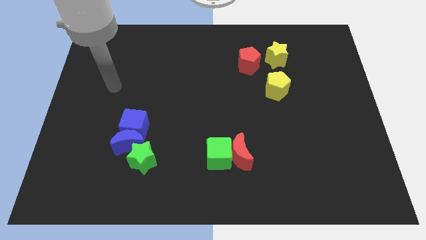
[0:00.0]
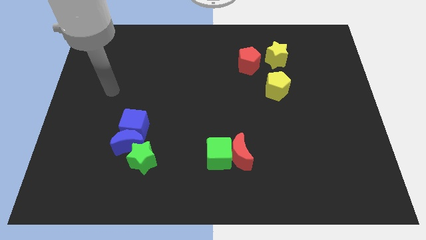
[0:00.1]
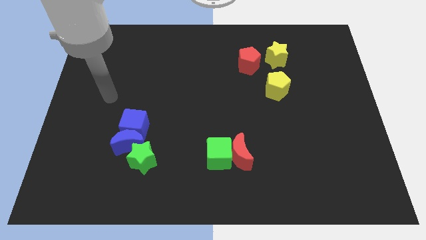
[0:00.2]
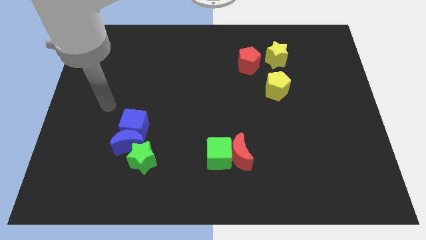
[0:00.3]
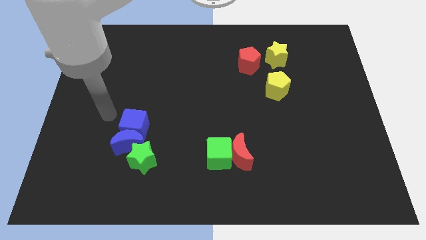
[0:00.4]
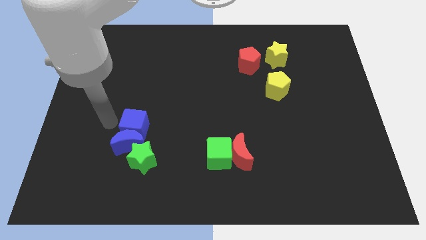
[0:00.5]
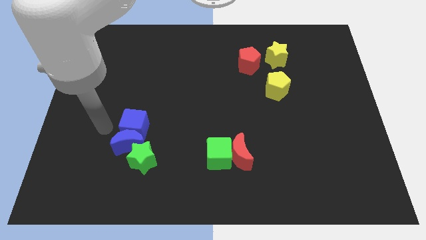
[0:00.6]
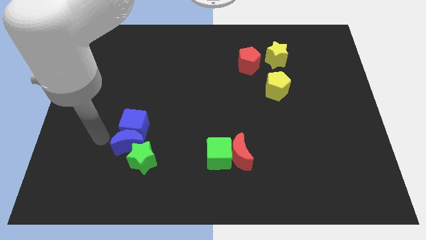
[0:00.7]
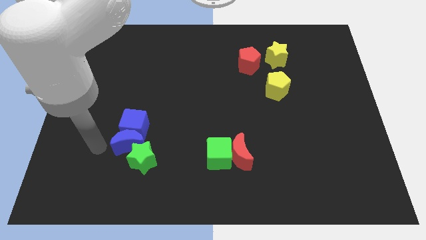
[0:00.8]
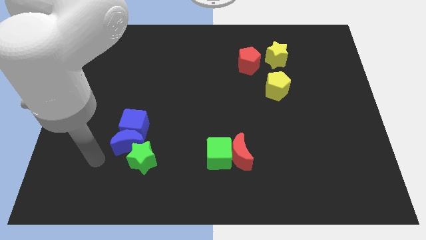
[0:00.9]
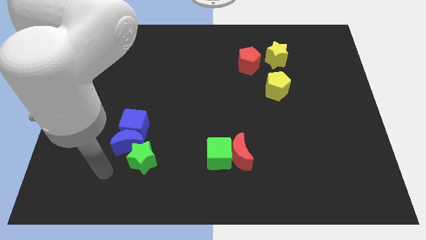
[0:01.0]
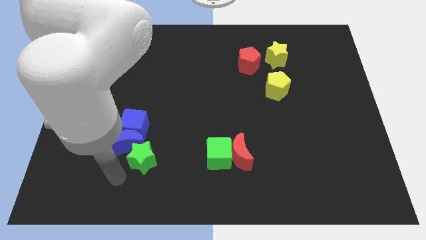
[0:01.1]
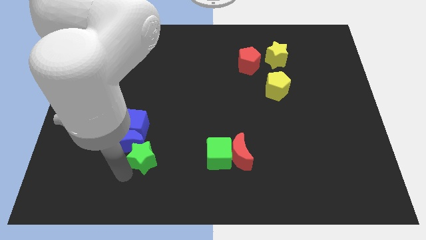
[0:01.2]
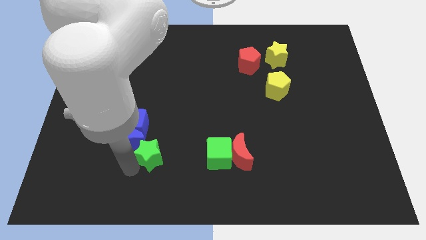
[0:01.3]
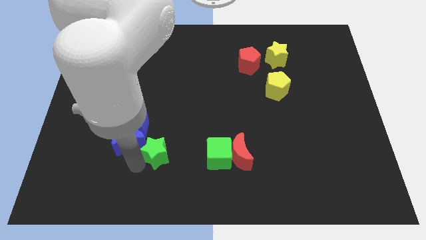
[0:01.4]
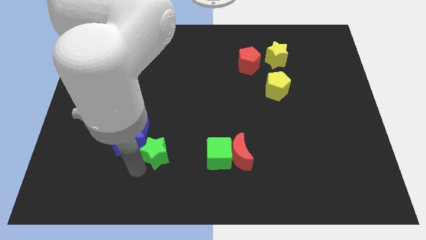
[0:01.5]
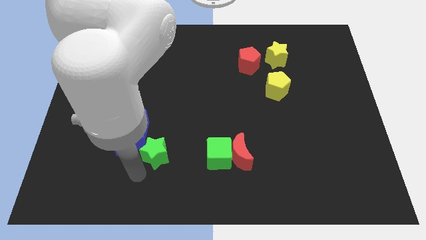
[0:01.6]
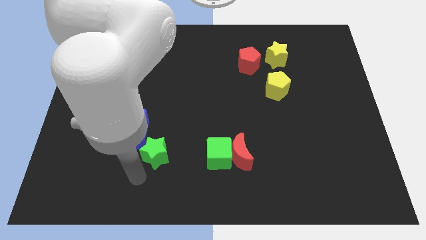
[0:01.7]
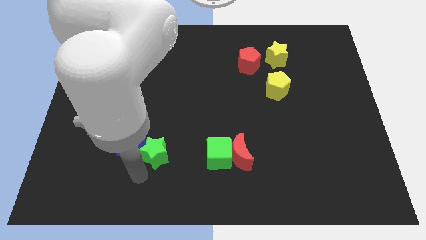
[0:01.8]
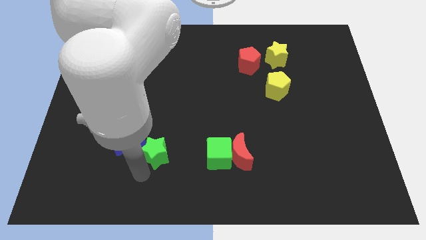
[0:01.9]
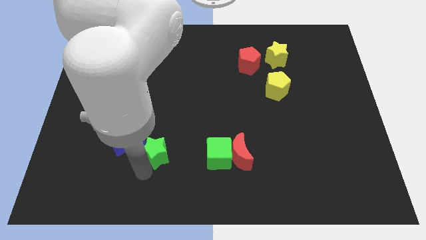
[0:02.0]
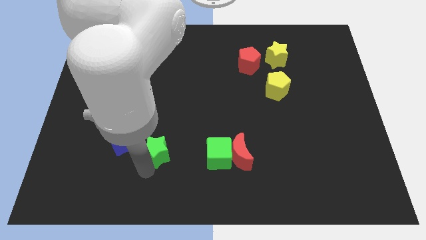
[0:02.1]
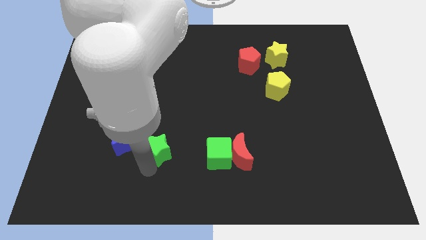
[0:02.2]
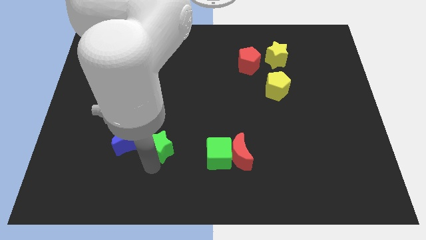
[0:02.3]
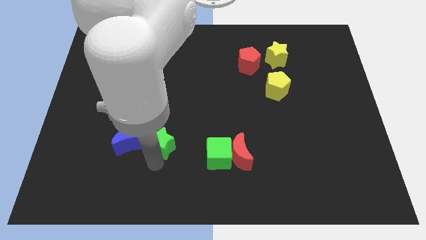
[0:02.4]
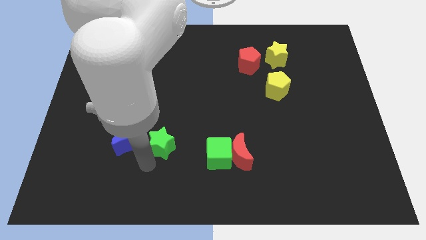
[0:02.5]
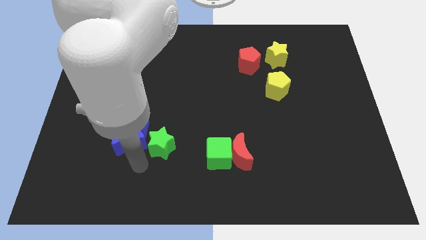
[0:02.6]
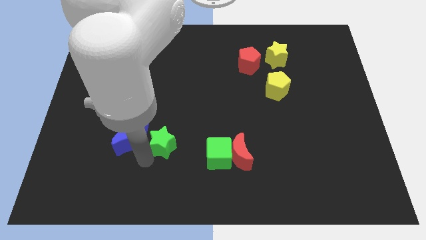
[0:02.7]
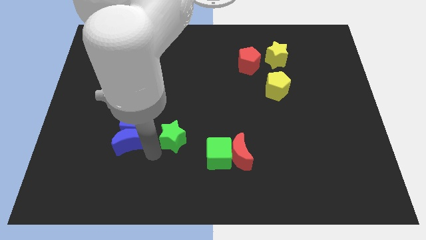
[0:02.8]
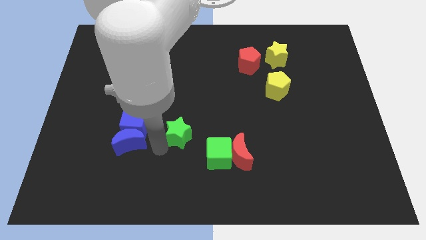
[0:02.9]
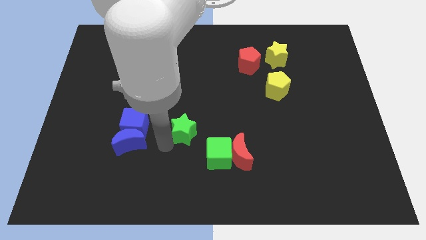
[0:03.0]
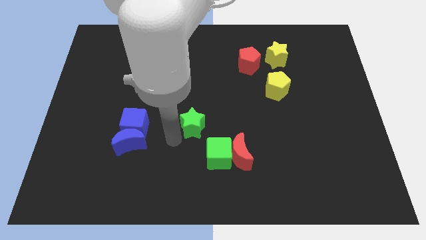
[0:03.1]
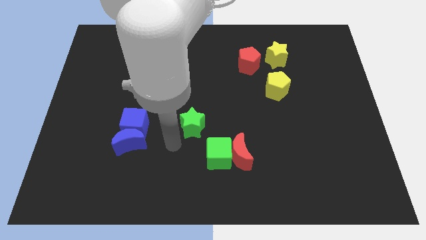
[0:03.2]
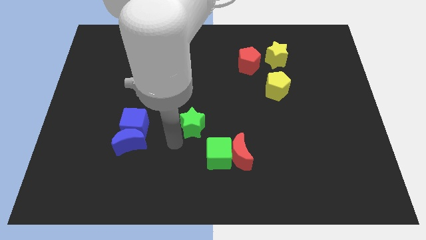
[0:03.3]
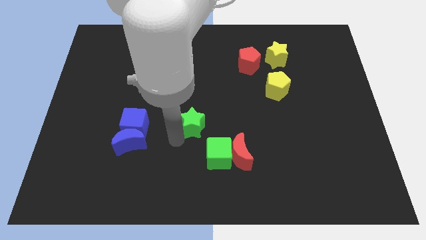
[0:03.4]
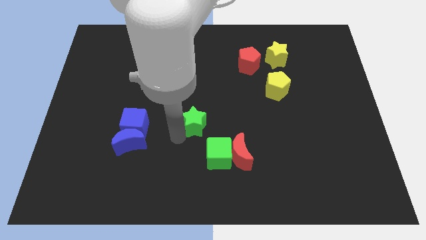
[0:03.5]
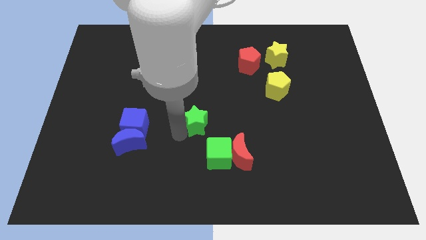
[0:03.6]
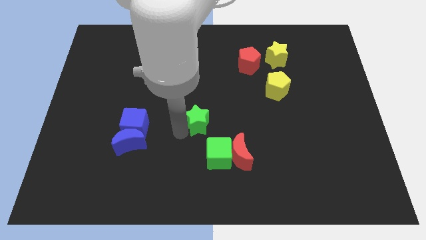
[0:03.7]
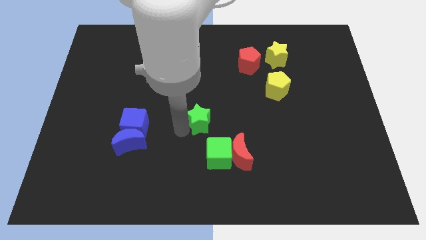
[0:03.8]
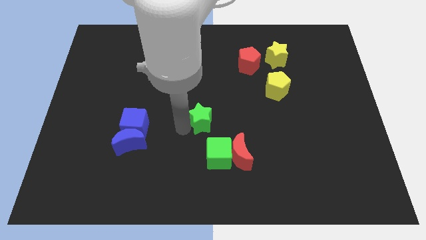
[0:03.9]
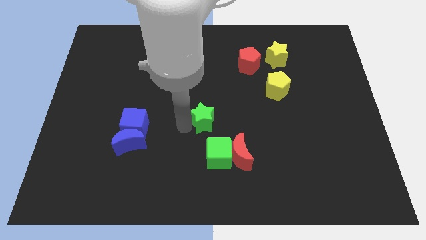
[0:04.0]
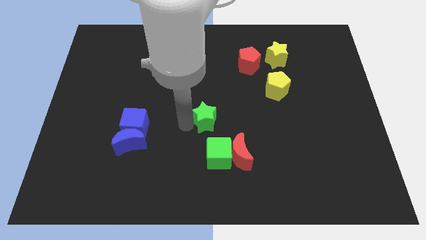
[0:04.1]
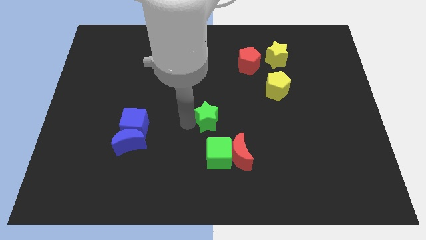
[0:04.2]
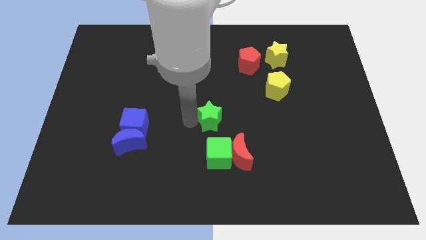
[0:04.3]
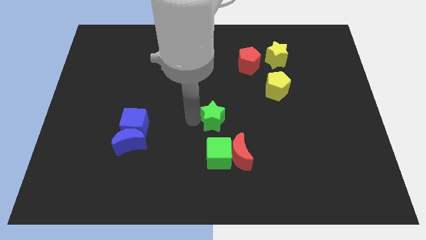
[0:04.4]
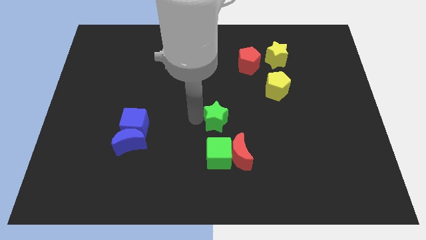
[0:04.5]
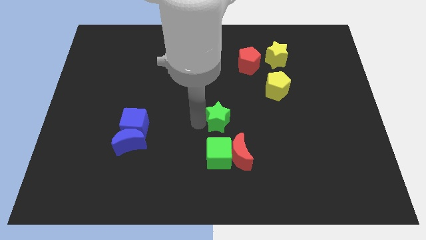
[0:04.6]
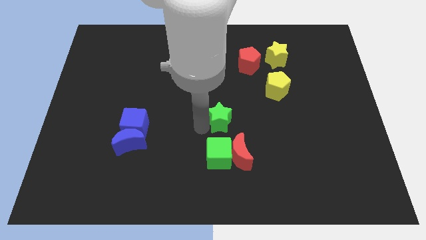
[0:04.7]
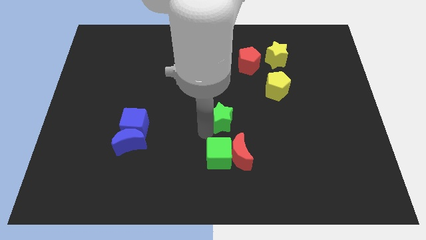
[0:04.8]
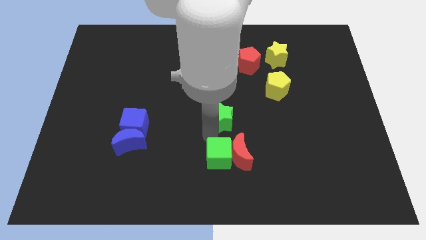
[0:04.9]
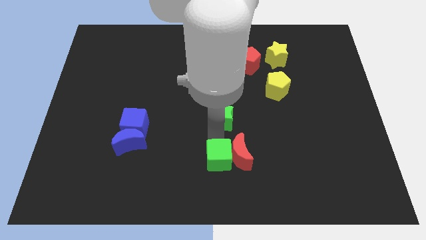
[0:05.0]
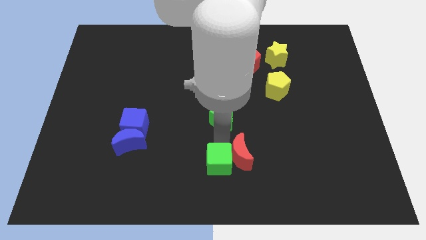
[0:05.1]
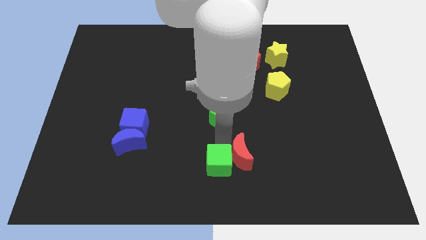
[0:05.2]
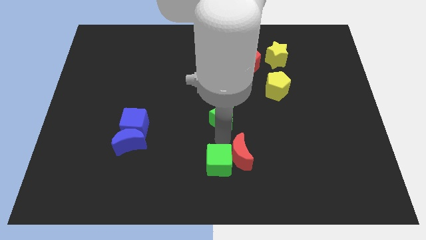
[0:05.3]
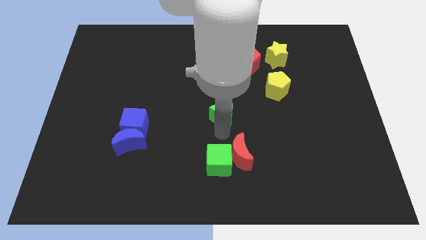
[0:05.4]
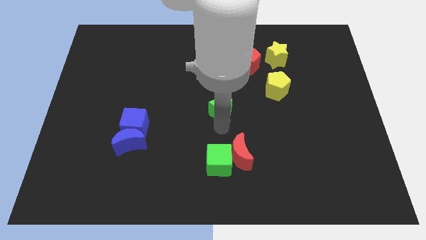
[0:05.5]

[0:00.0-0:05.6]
slide the green star diagonally up and right

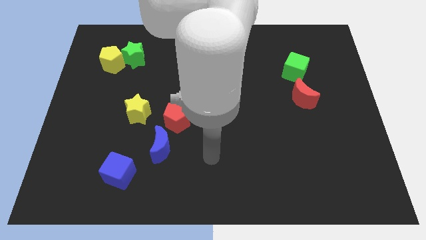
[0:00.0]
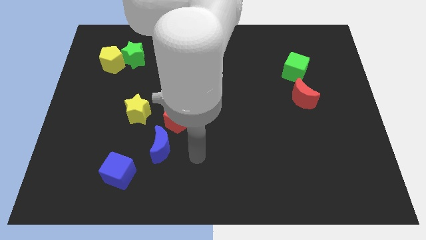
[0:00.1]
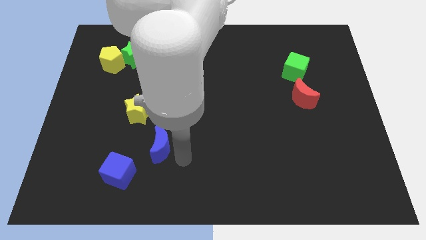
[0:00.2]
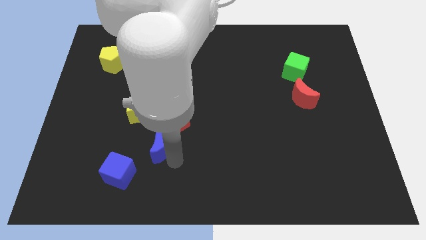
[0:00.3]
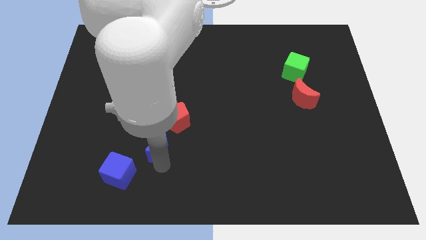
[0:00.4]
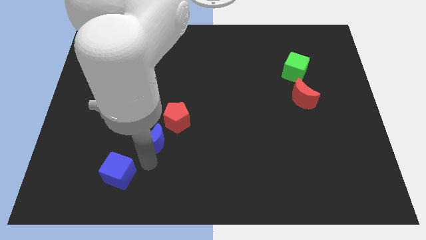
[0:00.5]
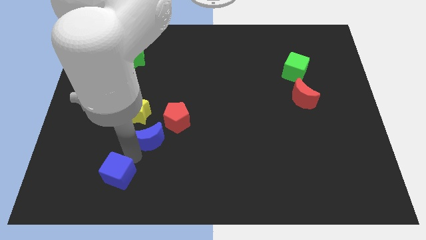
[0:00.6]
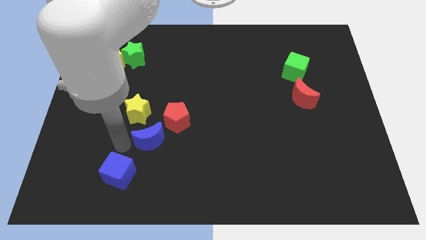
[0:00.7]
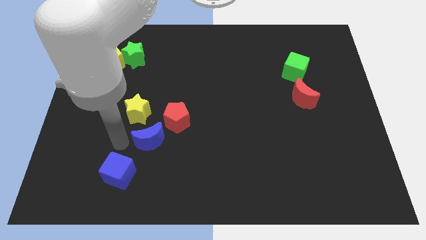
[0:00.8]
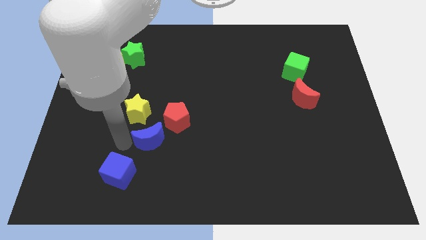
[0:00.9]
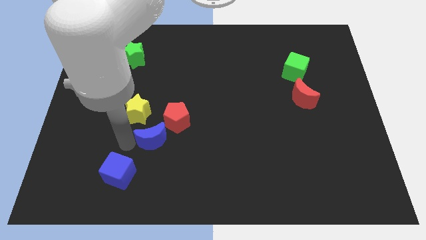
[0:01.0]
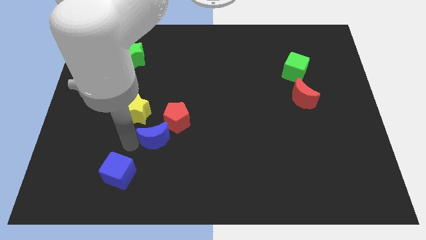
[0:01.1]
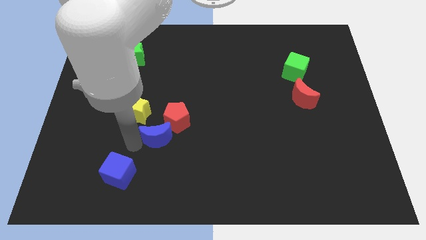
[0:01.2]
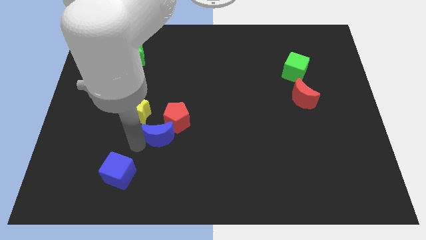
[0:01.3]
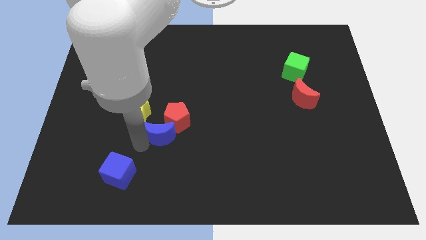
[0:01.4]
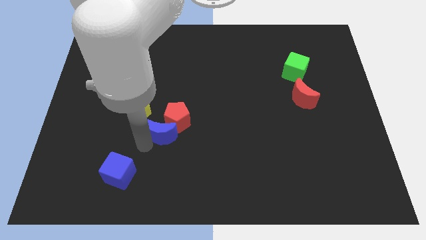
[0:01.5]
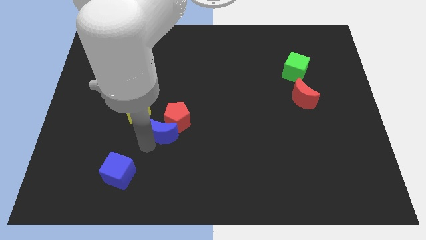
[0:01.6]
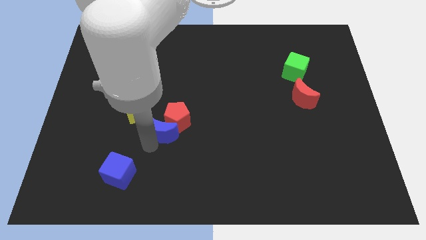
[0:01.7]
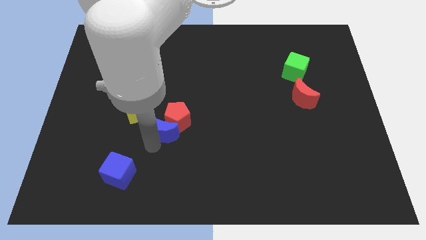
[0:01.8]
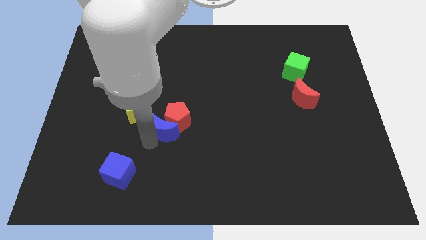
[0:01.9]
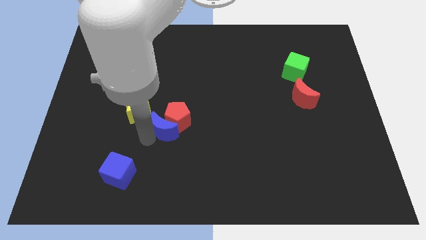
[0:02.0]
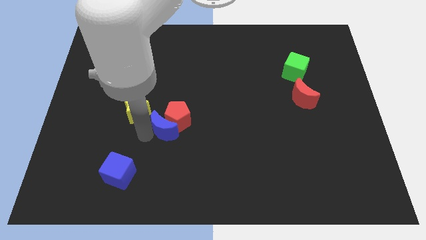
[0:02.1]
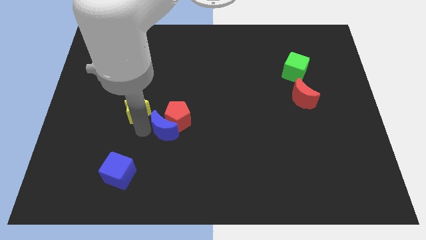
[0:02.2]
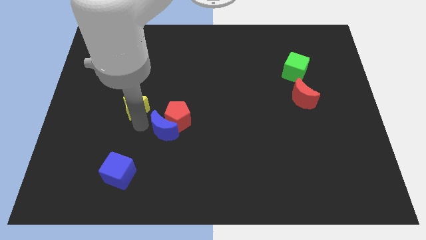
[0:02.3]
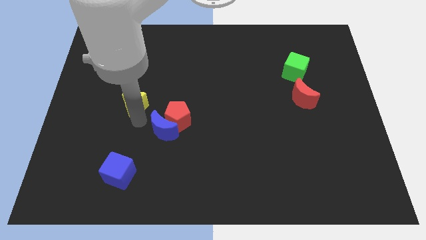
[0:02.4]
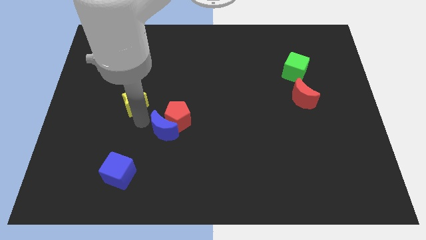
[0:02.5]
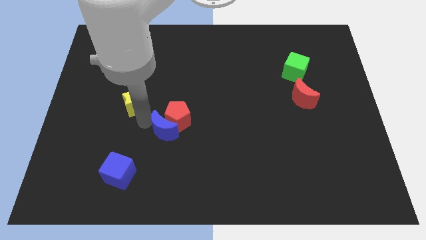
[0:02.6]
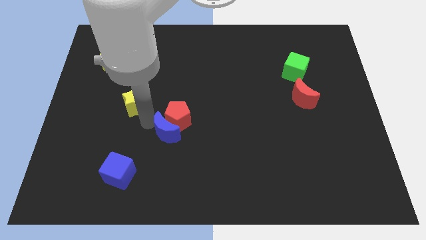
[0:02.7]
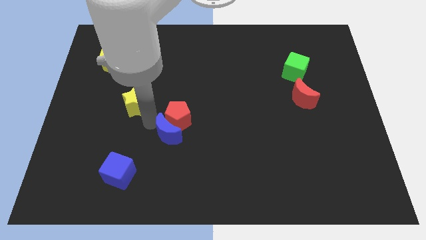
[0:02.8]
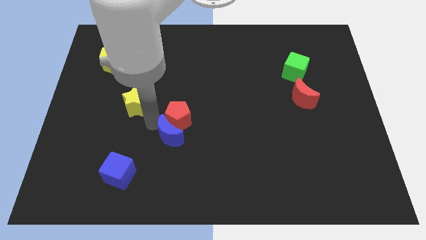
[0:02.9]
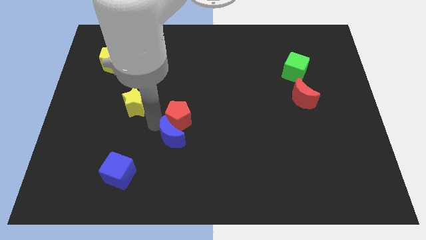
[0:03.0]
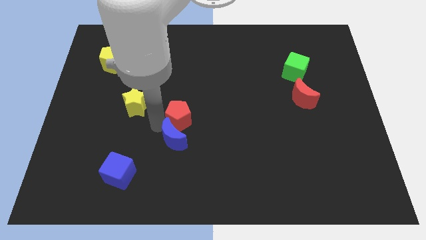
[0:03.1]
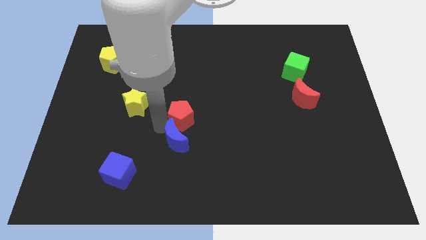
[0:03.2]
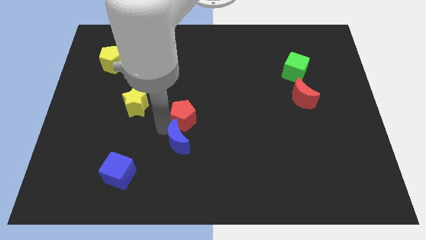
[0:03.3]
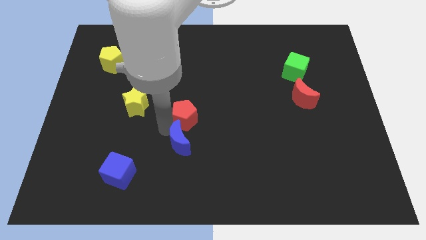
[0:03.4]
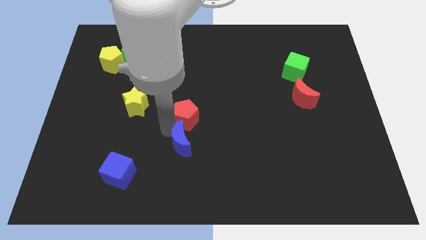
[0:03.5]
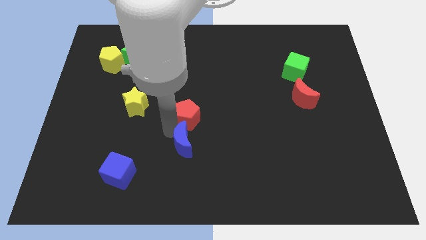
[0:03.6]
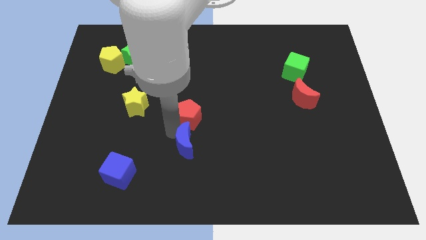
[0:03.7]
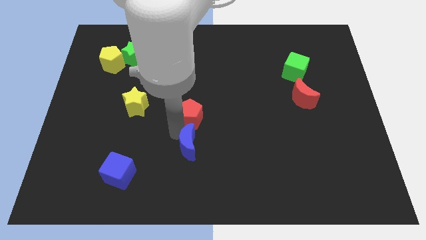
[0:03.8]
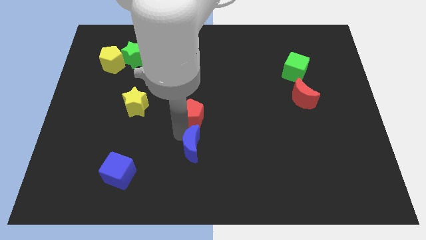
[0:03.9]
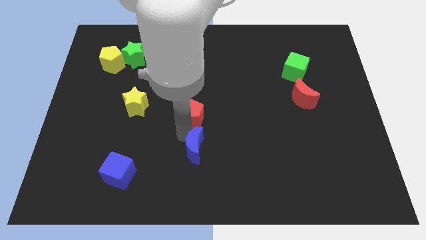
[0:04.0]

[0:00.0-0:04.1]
slightly slide the blue moon right
